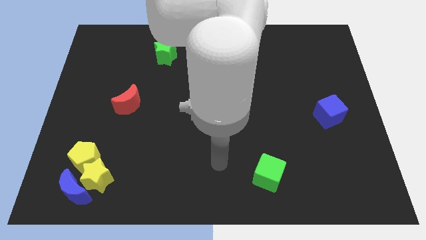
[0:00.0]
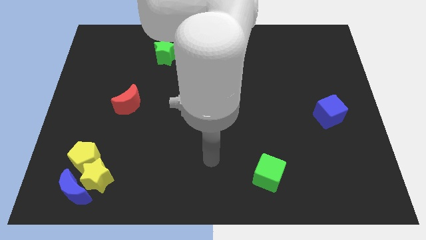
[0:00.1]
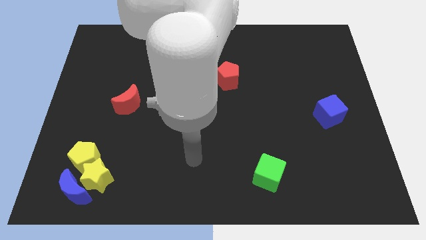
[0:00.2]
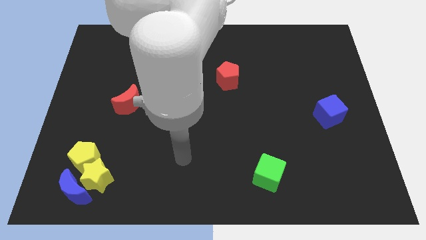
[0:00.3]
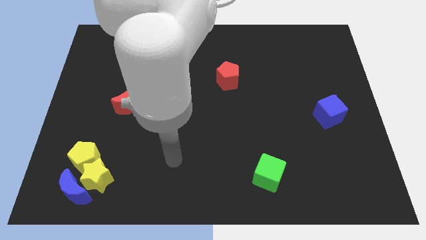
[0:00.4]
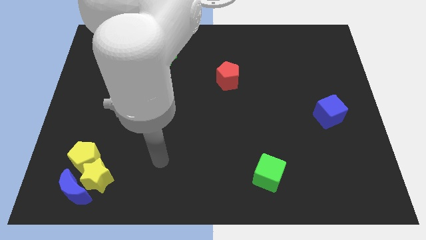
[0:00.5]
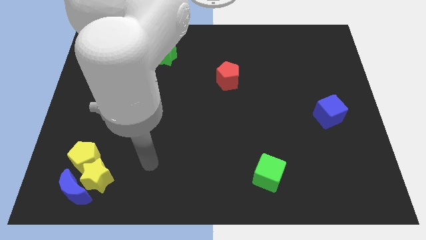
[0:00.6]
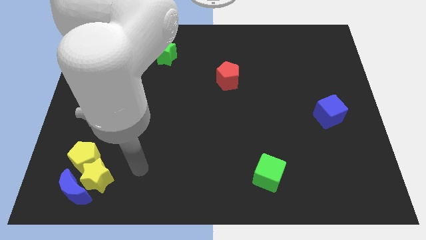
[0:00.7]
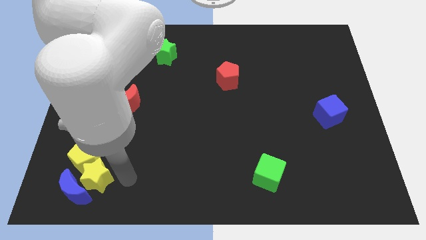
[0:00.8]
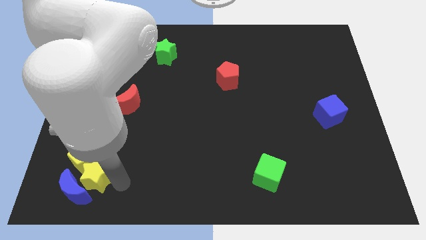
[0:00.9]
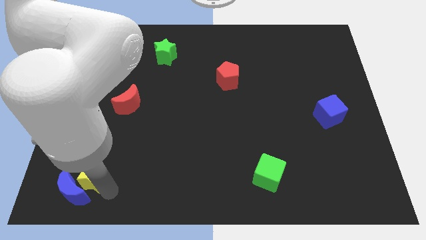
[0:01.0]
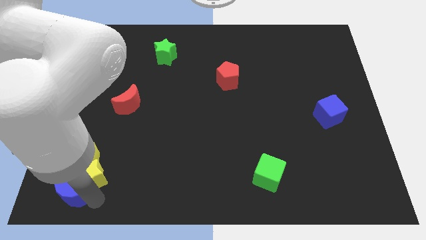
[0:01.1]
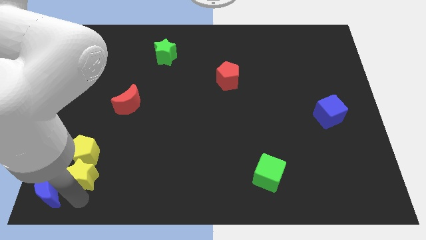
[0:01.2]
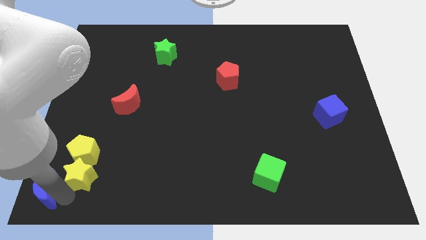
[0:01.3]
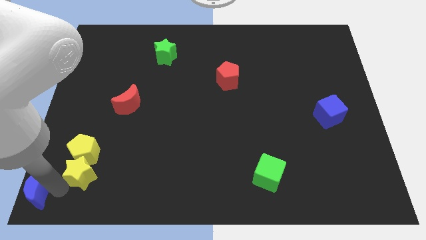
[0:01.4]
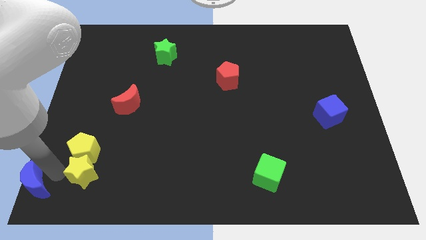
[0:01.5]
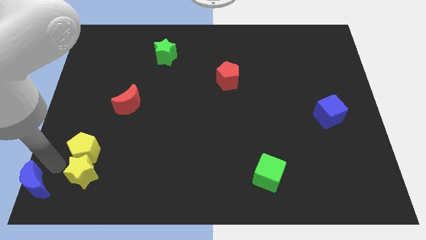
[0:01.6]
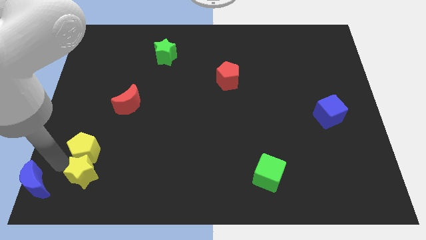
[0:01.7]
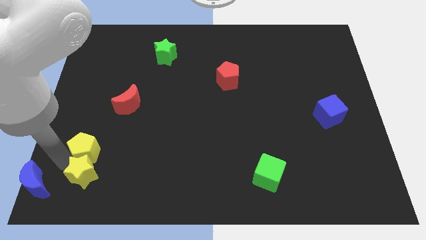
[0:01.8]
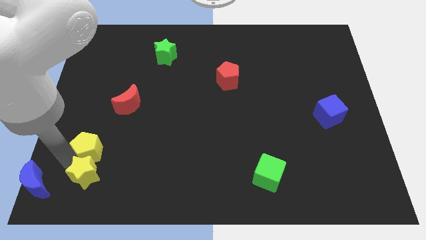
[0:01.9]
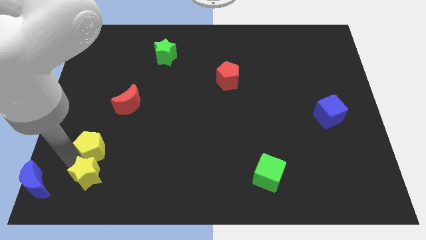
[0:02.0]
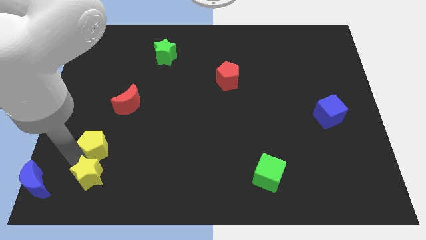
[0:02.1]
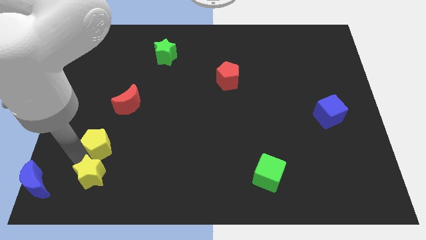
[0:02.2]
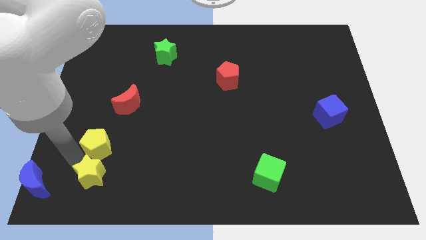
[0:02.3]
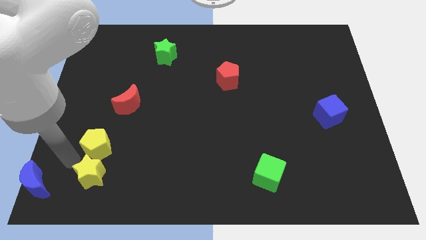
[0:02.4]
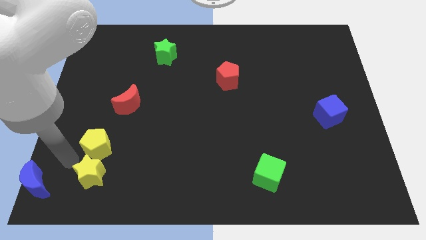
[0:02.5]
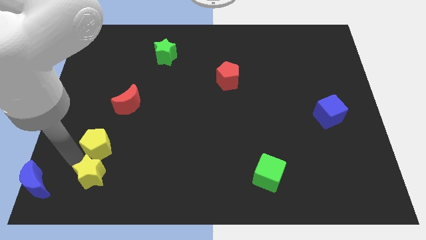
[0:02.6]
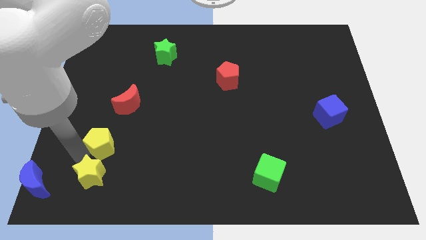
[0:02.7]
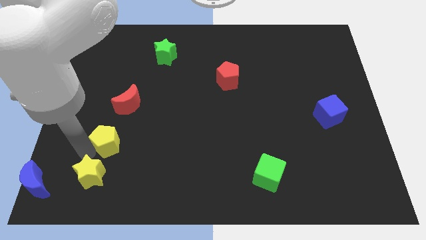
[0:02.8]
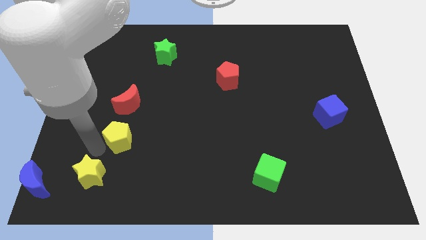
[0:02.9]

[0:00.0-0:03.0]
slide the yellow pentagon a little up and then right

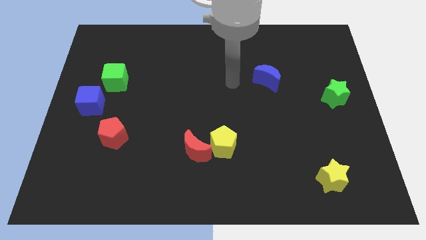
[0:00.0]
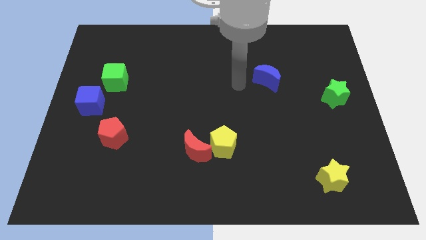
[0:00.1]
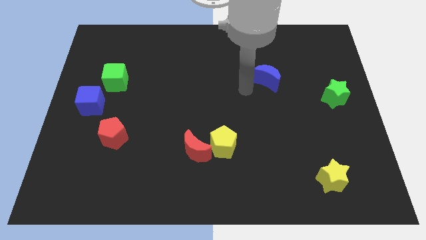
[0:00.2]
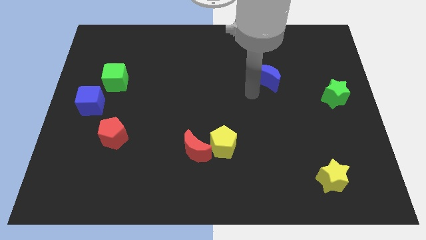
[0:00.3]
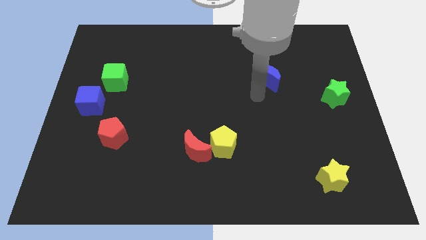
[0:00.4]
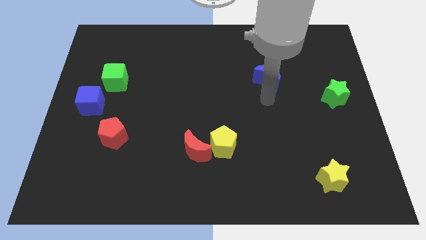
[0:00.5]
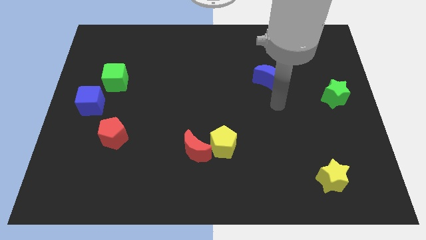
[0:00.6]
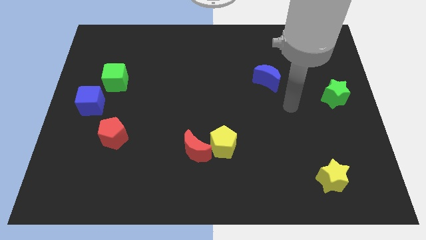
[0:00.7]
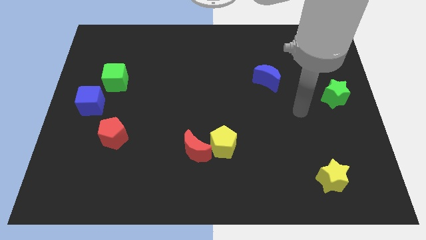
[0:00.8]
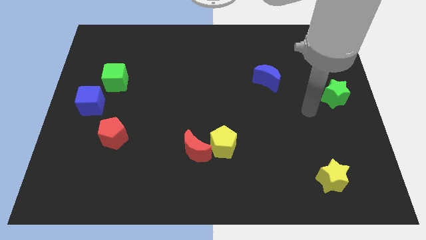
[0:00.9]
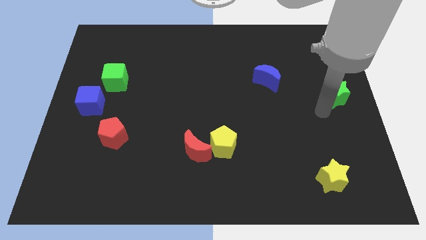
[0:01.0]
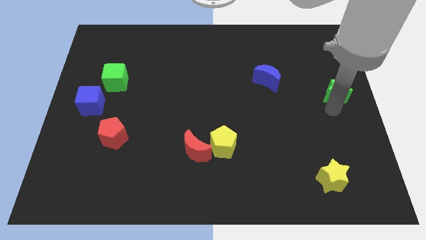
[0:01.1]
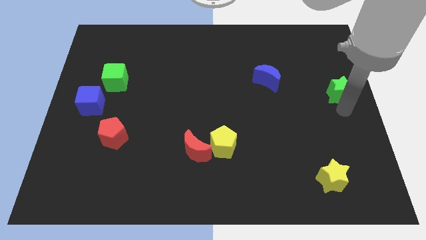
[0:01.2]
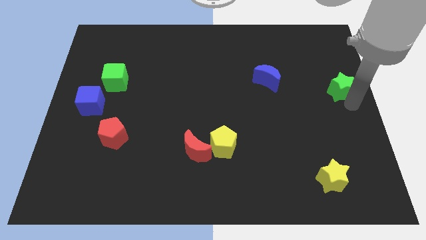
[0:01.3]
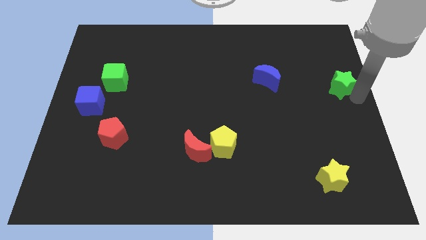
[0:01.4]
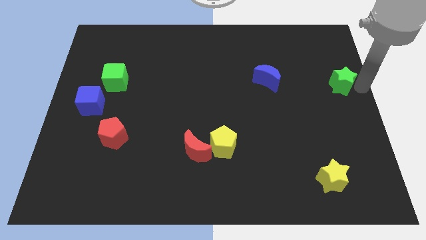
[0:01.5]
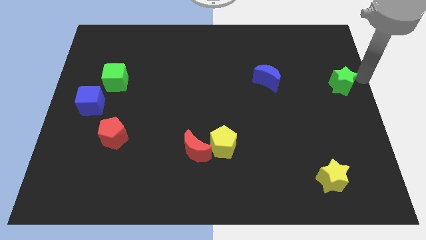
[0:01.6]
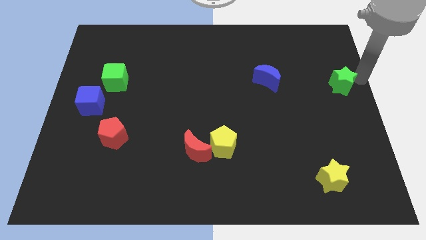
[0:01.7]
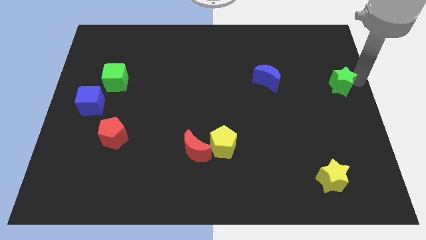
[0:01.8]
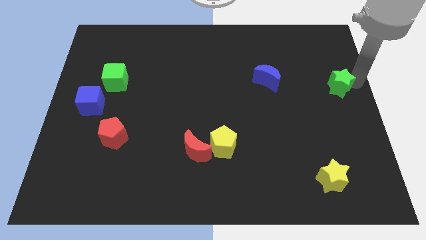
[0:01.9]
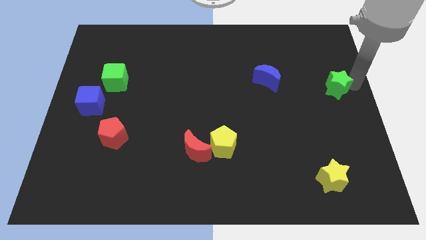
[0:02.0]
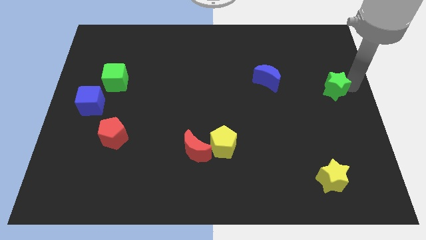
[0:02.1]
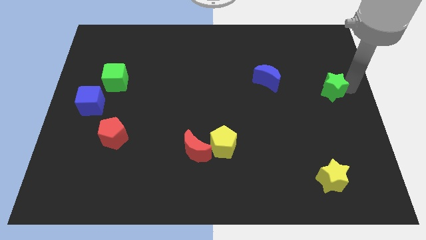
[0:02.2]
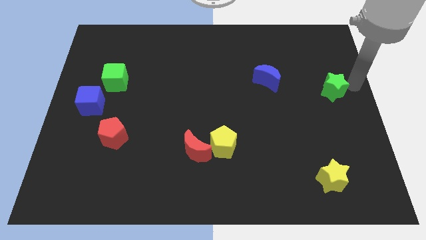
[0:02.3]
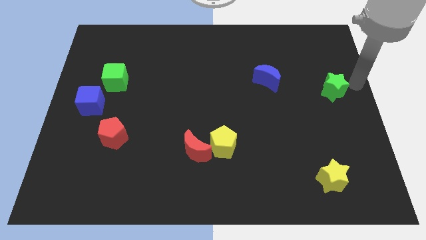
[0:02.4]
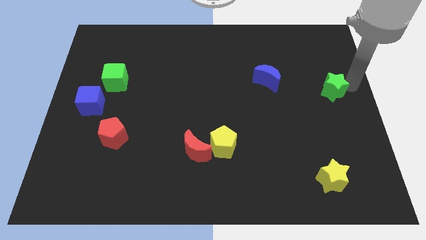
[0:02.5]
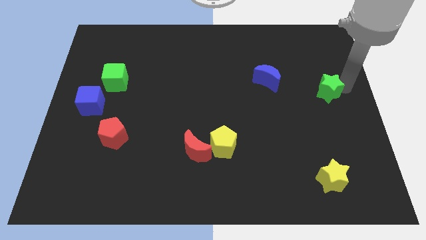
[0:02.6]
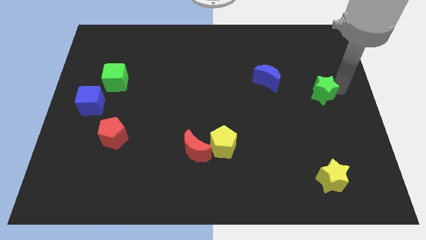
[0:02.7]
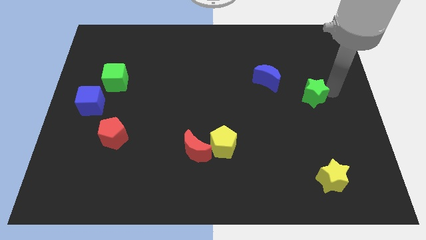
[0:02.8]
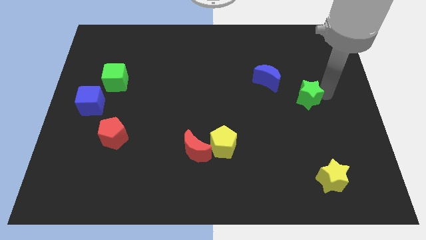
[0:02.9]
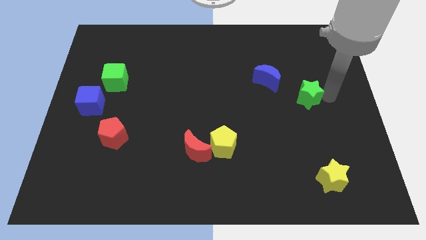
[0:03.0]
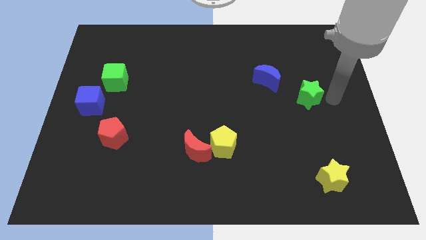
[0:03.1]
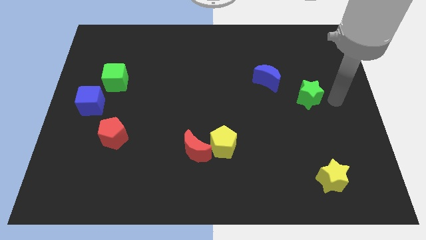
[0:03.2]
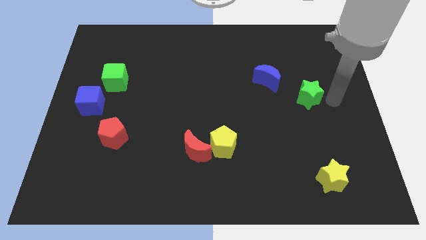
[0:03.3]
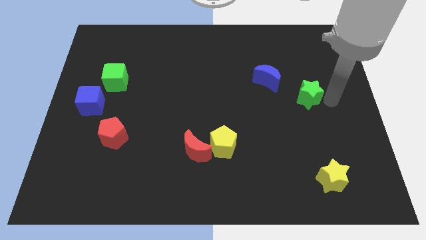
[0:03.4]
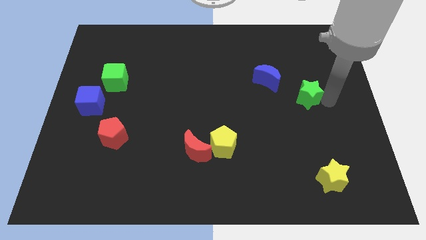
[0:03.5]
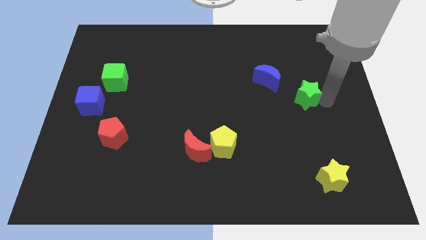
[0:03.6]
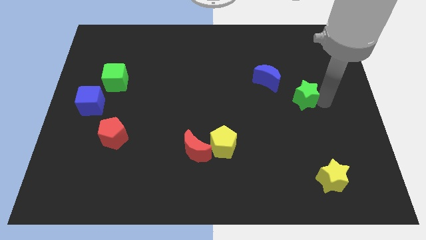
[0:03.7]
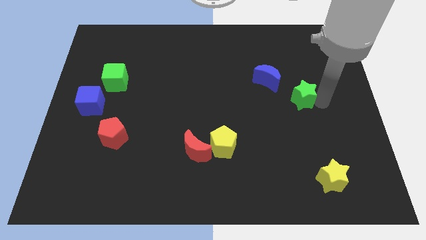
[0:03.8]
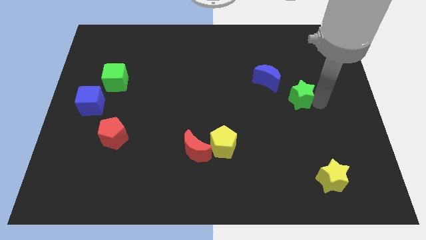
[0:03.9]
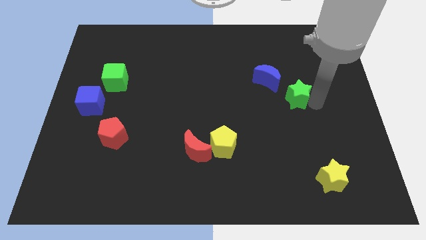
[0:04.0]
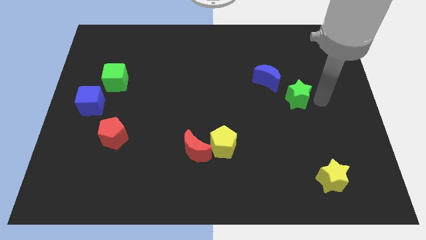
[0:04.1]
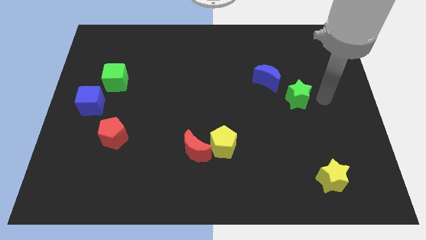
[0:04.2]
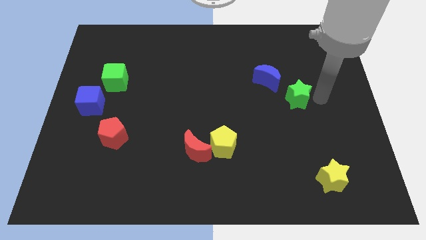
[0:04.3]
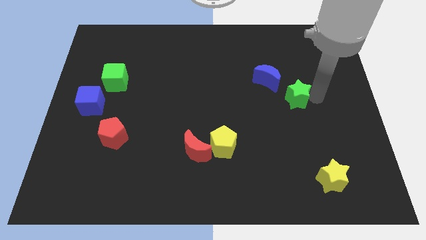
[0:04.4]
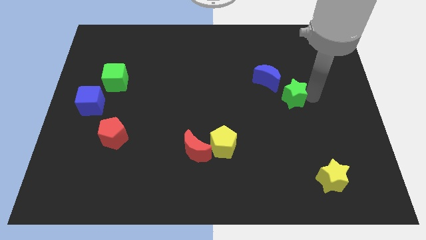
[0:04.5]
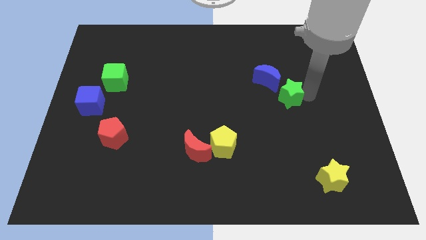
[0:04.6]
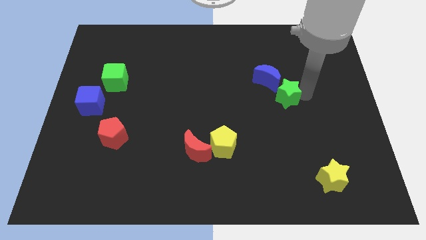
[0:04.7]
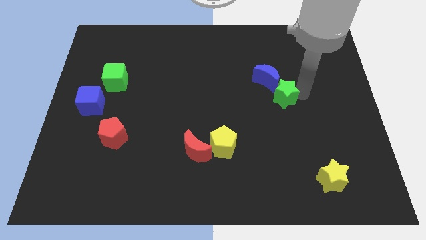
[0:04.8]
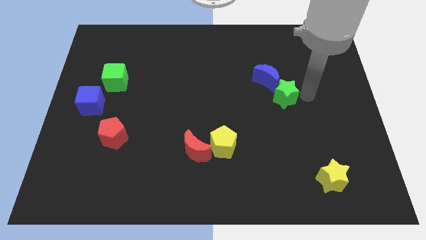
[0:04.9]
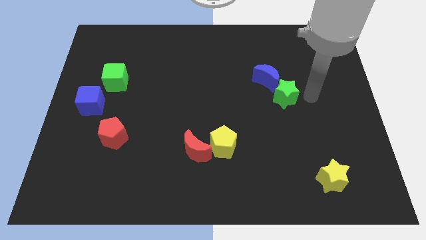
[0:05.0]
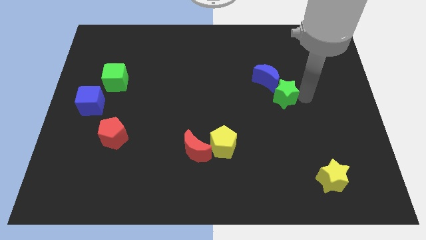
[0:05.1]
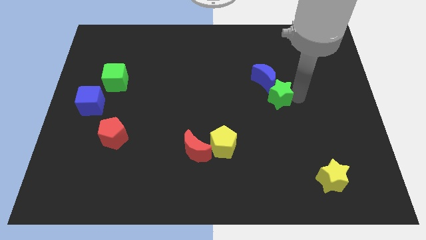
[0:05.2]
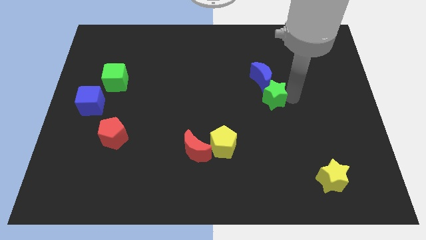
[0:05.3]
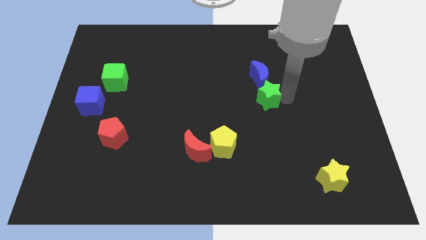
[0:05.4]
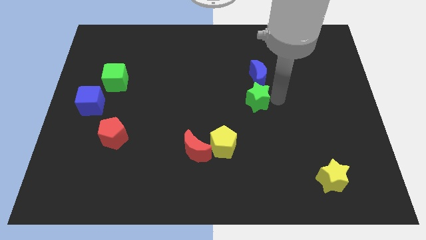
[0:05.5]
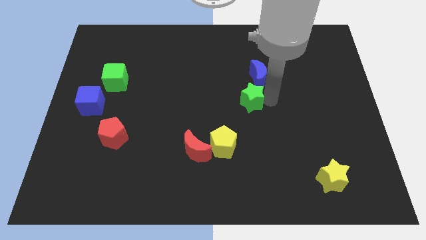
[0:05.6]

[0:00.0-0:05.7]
slide the green star to the left
